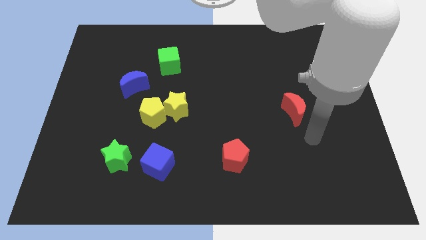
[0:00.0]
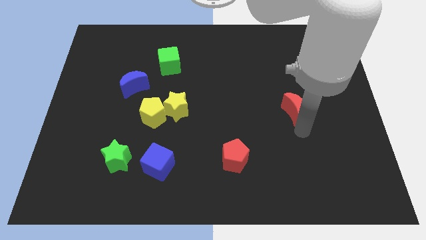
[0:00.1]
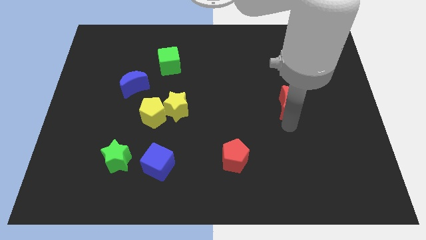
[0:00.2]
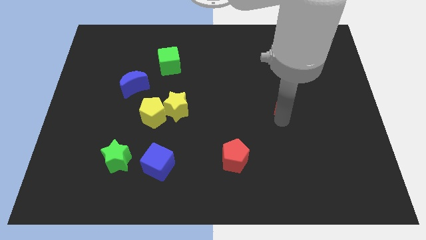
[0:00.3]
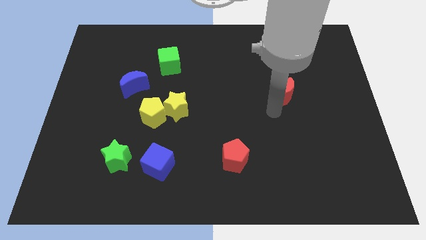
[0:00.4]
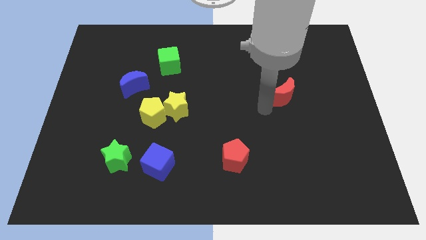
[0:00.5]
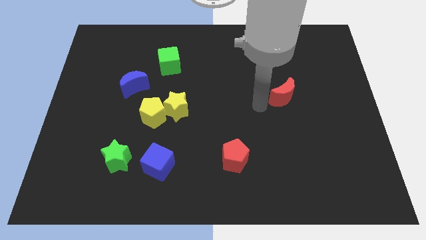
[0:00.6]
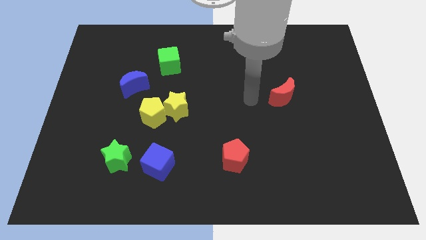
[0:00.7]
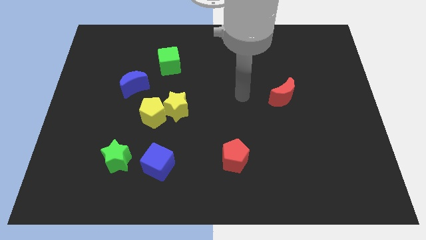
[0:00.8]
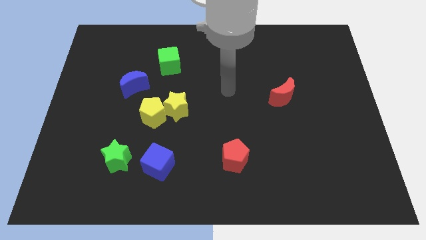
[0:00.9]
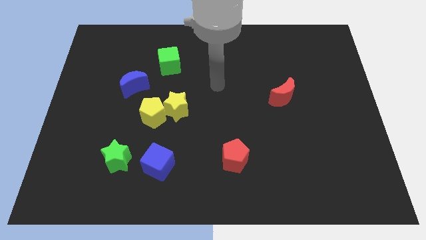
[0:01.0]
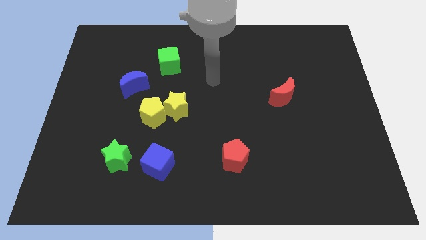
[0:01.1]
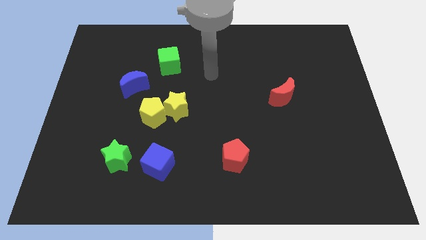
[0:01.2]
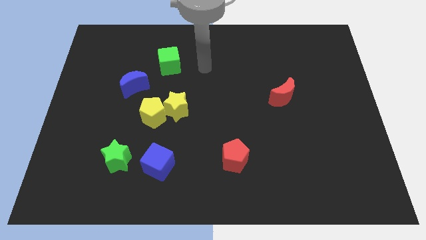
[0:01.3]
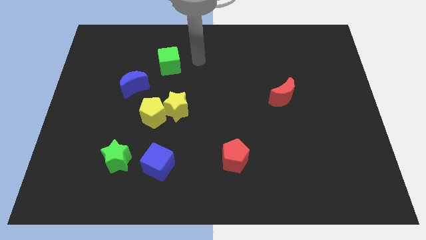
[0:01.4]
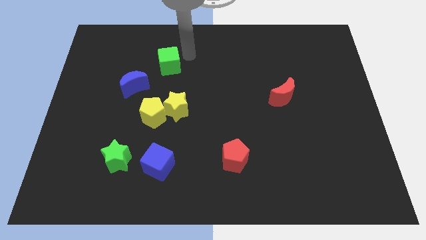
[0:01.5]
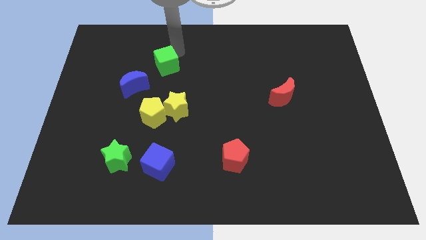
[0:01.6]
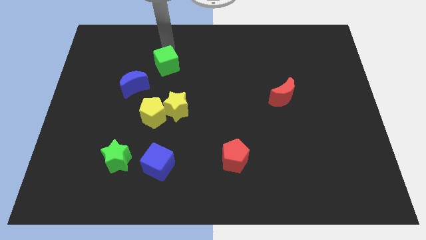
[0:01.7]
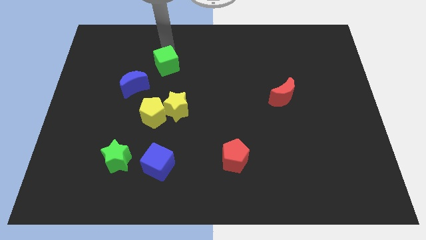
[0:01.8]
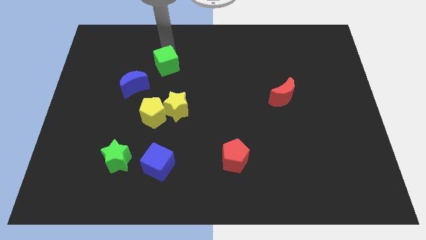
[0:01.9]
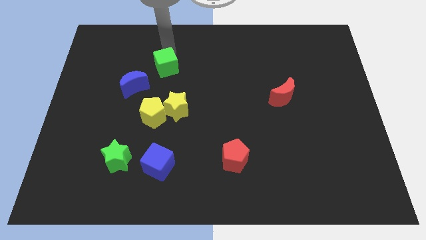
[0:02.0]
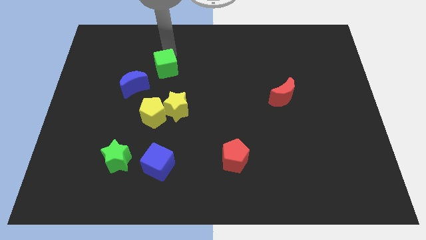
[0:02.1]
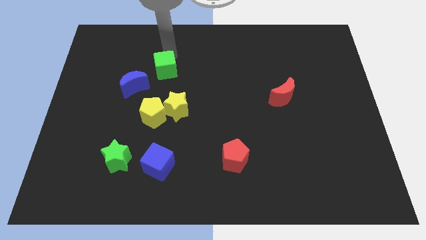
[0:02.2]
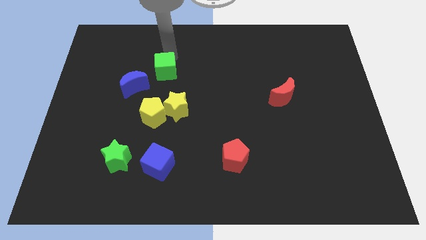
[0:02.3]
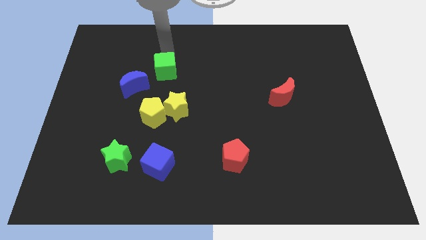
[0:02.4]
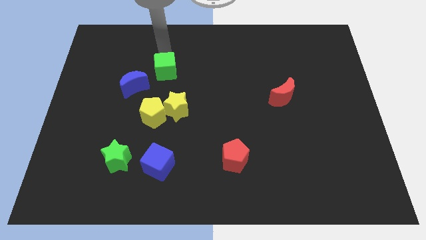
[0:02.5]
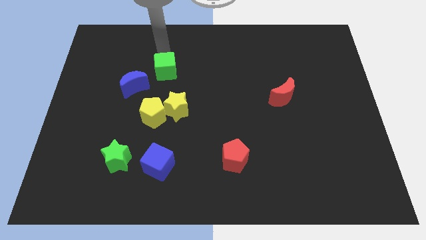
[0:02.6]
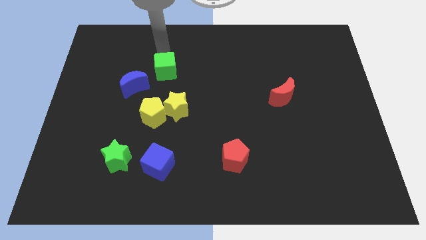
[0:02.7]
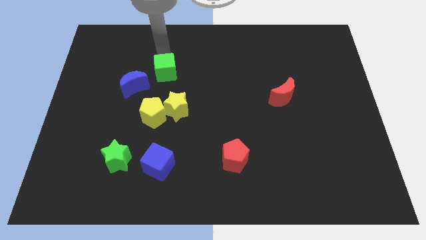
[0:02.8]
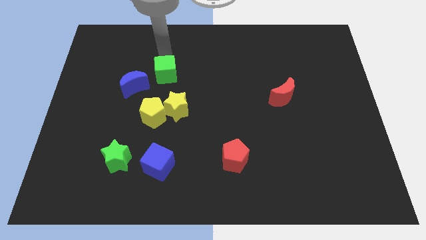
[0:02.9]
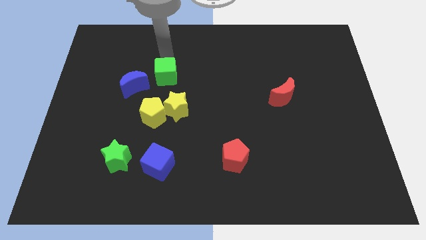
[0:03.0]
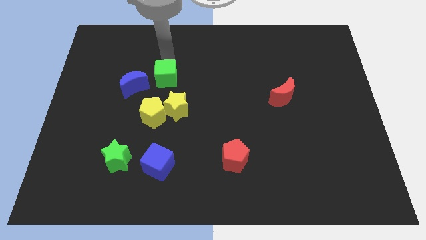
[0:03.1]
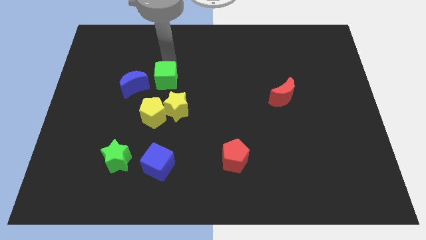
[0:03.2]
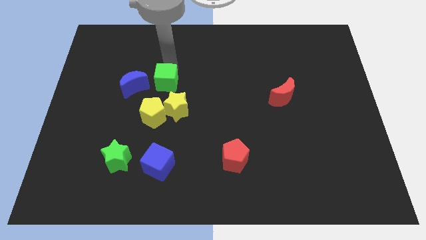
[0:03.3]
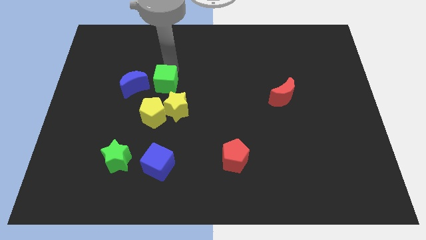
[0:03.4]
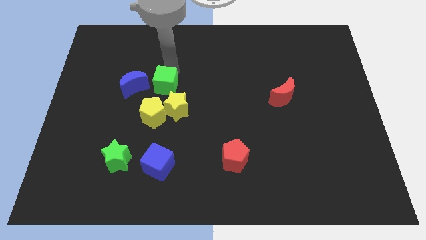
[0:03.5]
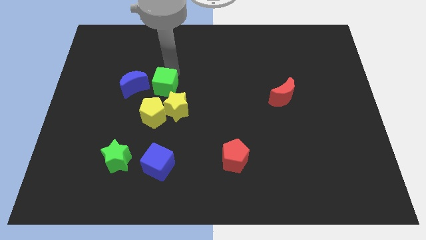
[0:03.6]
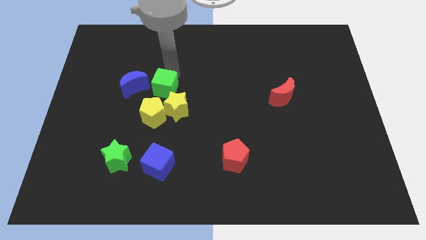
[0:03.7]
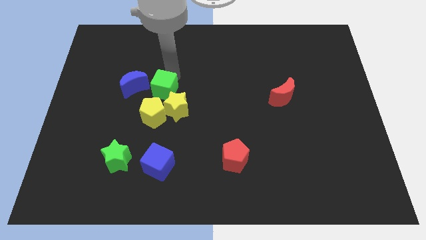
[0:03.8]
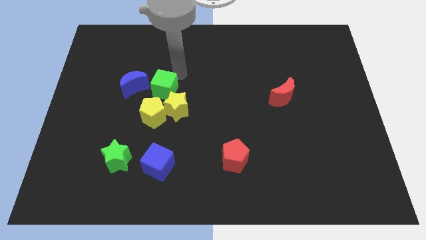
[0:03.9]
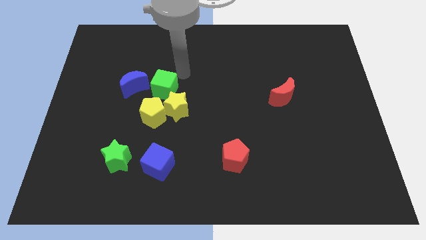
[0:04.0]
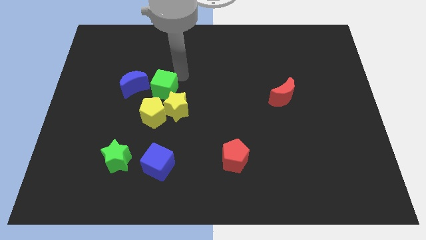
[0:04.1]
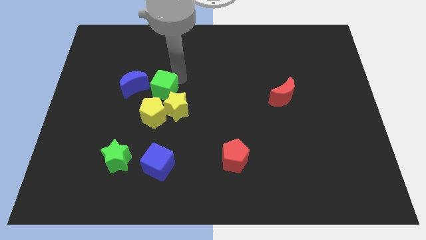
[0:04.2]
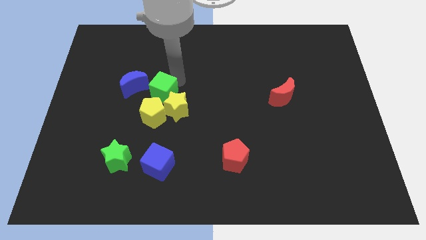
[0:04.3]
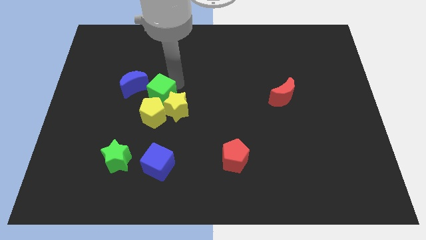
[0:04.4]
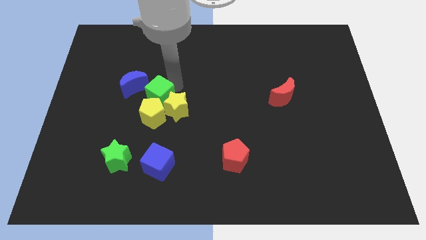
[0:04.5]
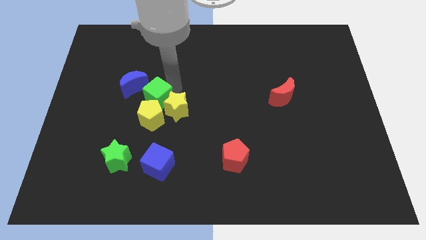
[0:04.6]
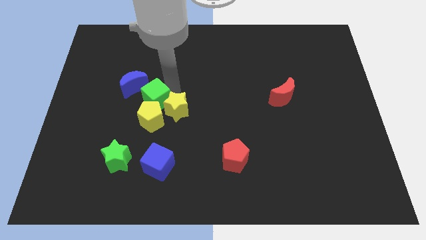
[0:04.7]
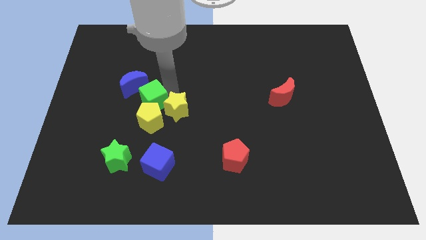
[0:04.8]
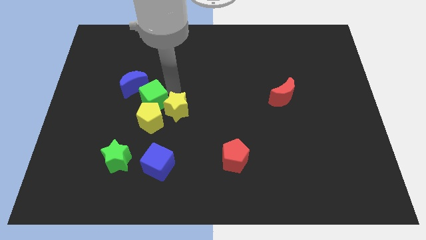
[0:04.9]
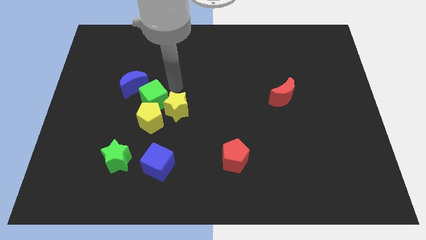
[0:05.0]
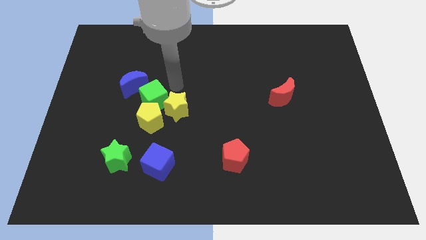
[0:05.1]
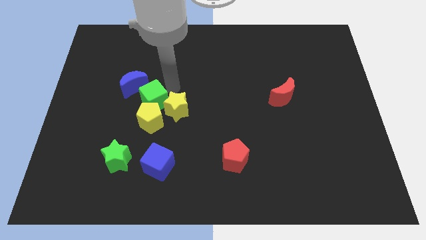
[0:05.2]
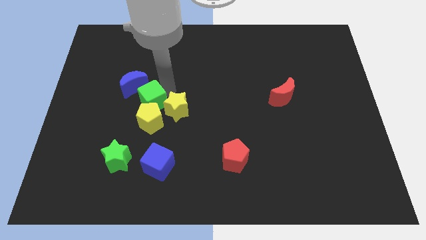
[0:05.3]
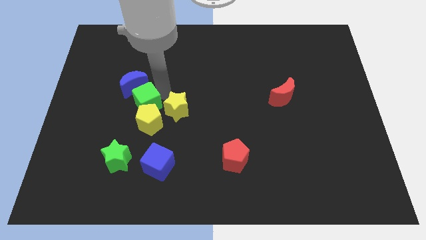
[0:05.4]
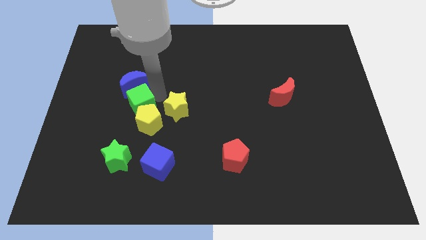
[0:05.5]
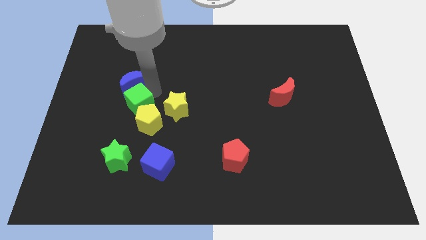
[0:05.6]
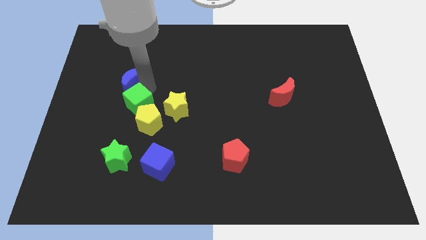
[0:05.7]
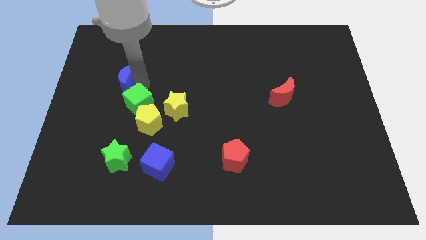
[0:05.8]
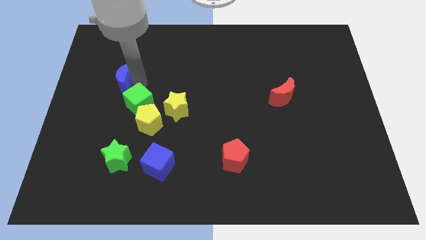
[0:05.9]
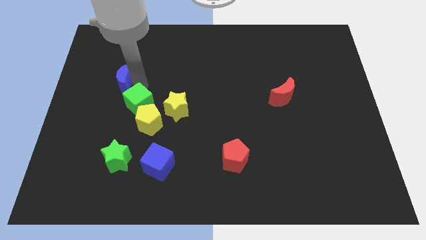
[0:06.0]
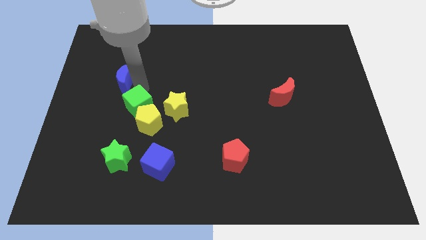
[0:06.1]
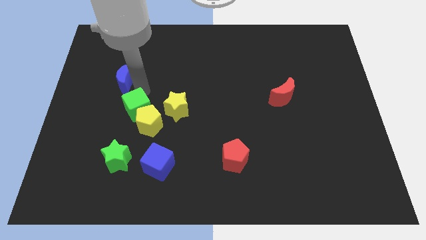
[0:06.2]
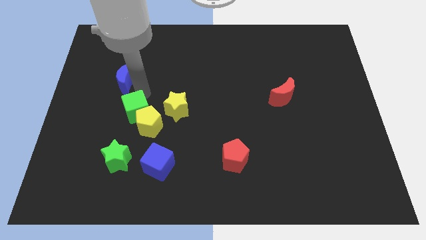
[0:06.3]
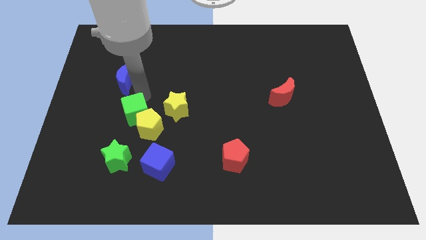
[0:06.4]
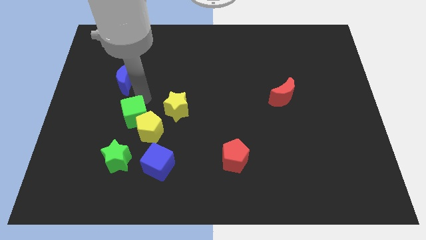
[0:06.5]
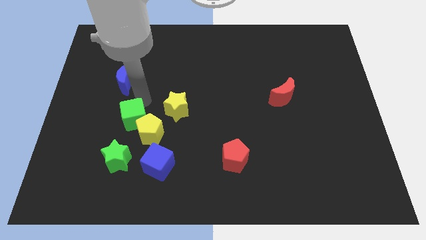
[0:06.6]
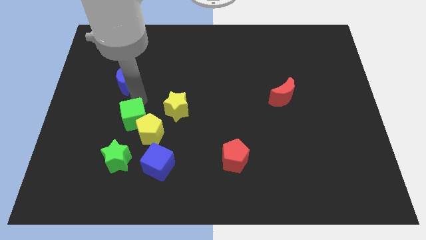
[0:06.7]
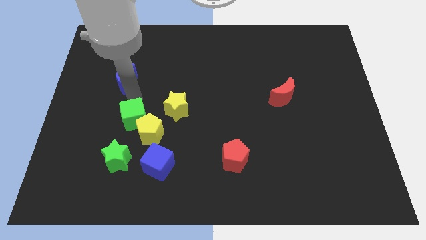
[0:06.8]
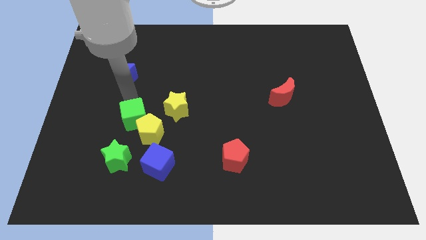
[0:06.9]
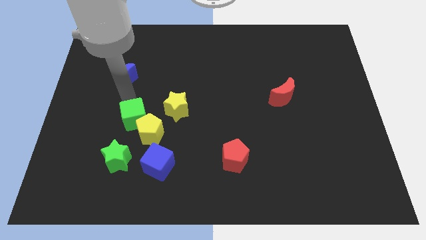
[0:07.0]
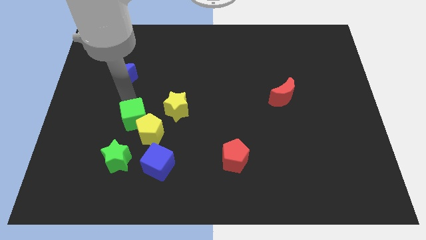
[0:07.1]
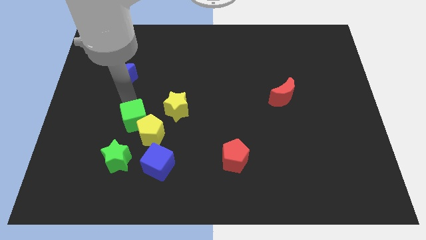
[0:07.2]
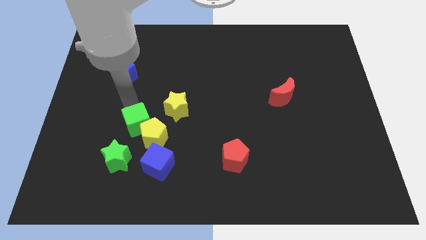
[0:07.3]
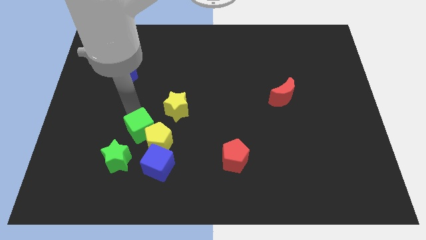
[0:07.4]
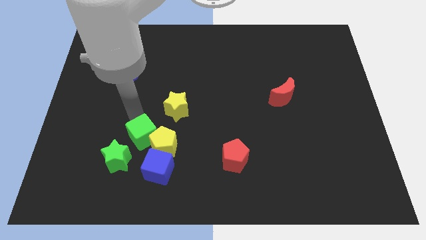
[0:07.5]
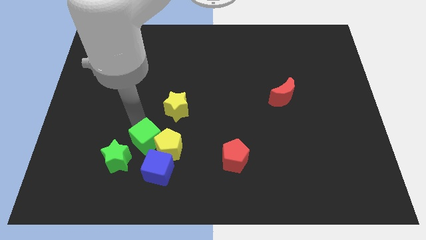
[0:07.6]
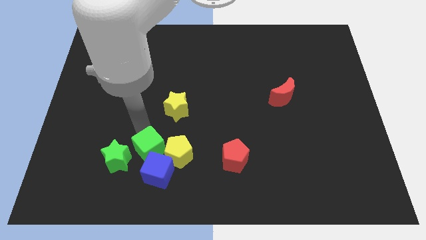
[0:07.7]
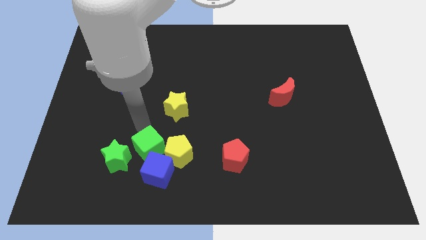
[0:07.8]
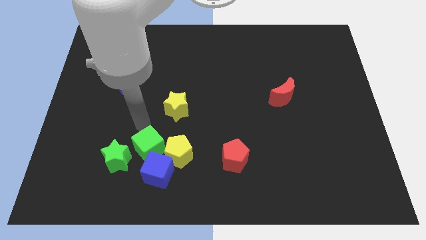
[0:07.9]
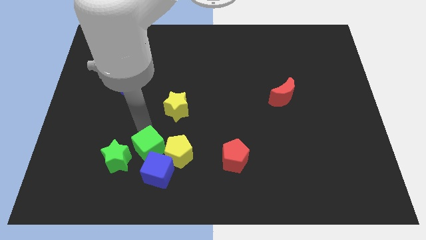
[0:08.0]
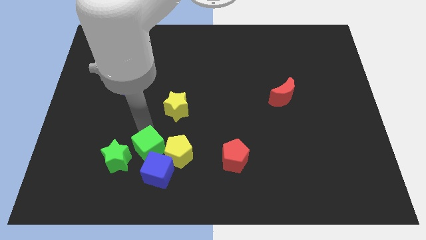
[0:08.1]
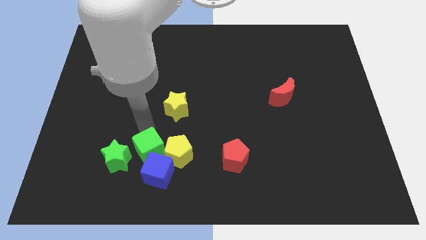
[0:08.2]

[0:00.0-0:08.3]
push the green cube to the blue cube
